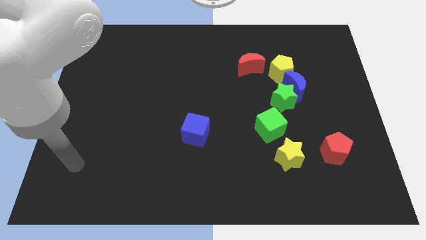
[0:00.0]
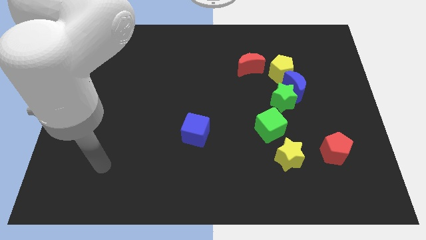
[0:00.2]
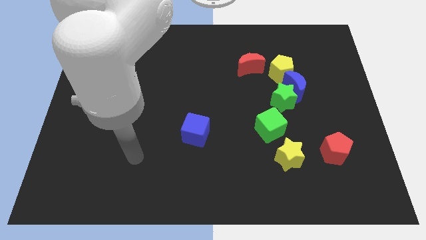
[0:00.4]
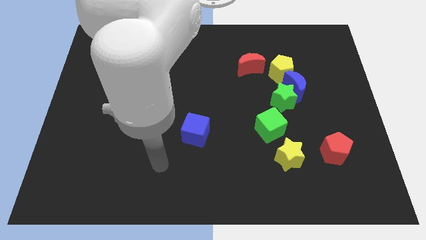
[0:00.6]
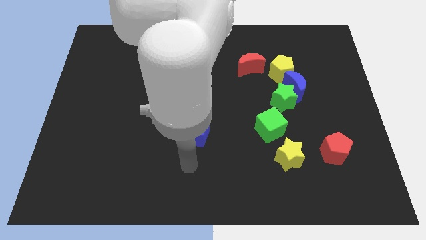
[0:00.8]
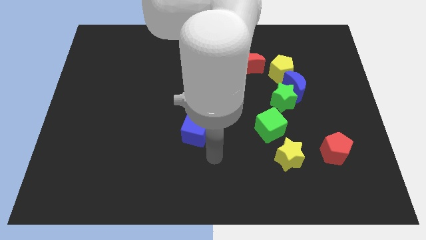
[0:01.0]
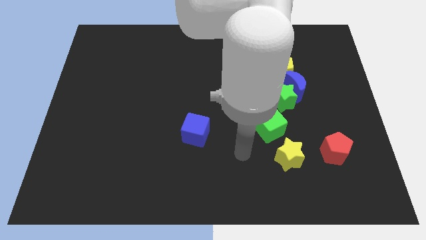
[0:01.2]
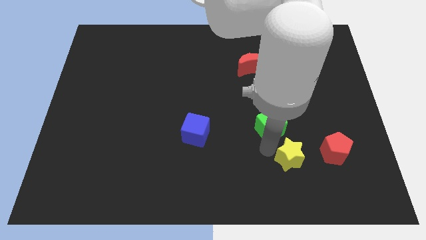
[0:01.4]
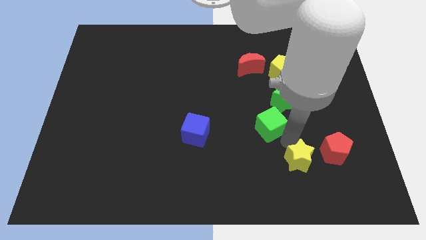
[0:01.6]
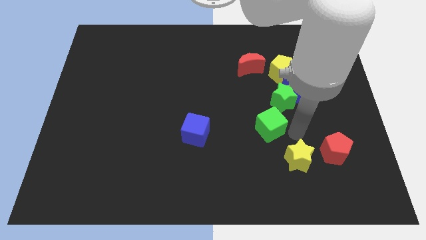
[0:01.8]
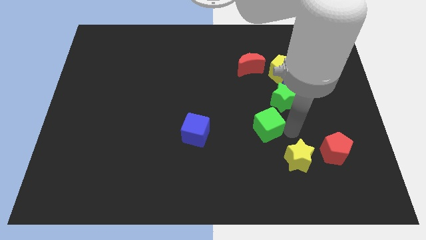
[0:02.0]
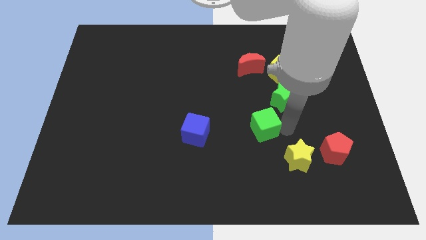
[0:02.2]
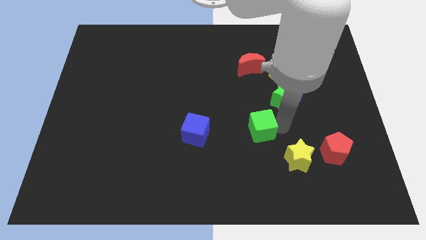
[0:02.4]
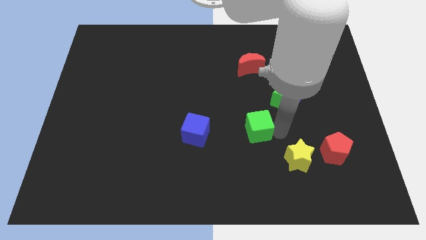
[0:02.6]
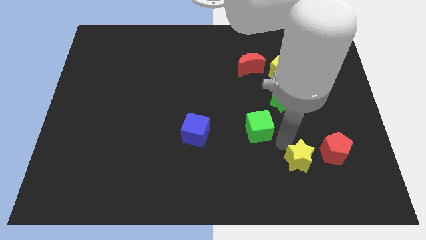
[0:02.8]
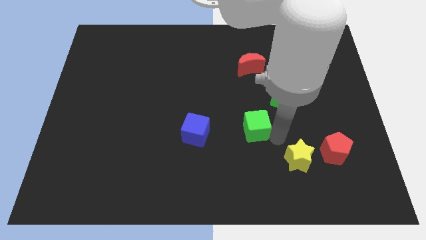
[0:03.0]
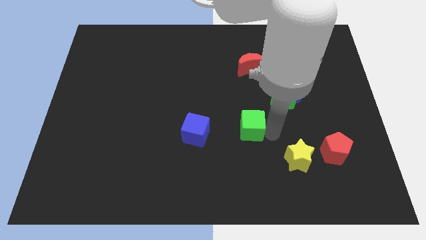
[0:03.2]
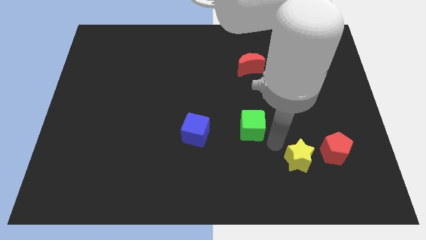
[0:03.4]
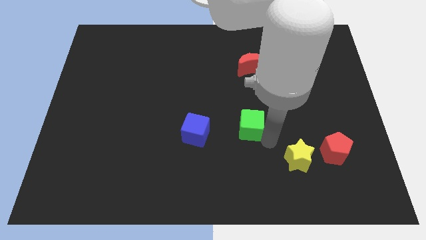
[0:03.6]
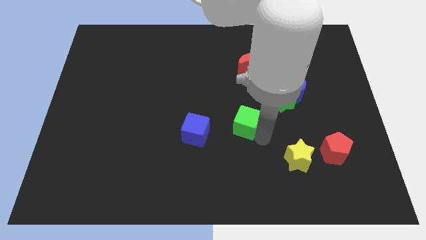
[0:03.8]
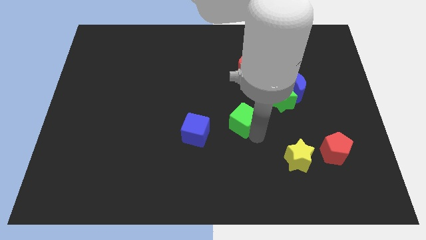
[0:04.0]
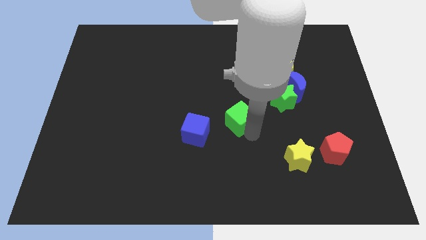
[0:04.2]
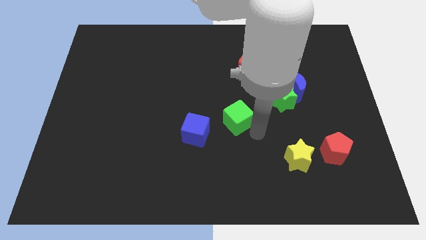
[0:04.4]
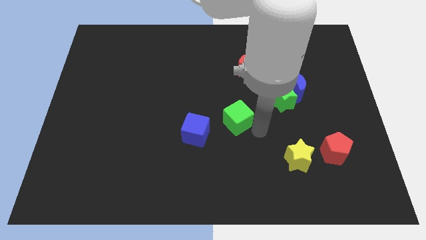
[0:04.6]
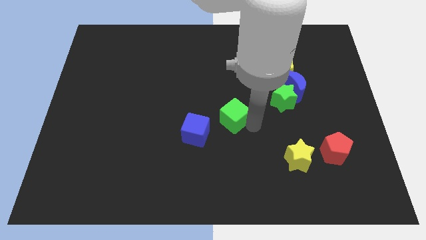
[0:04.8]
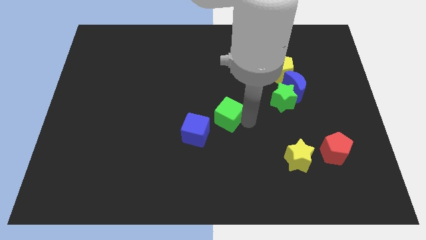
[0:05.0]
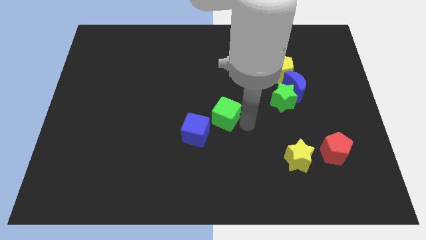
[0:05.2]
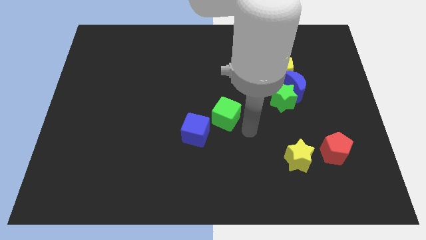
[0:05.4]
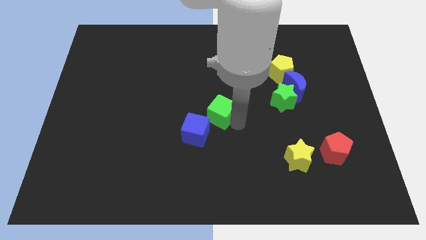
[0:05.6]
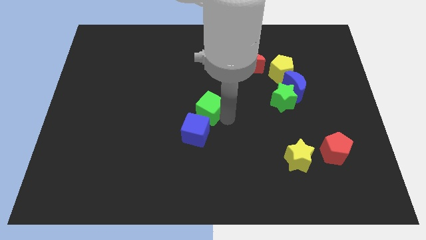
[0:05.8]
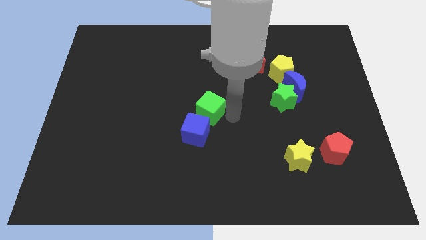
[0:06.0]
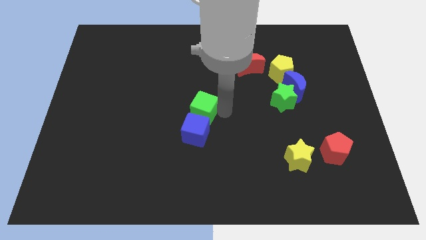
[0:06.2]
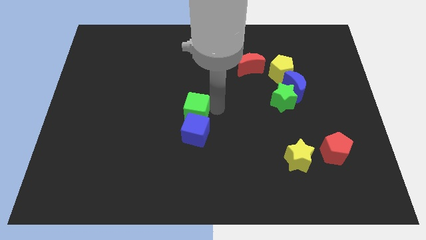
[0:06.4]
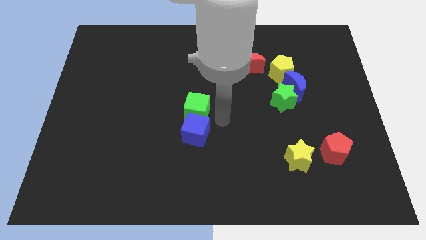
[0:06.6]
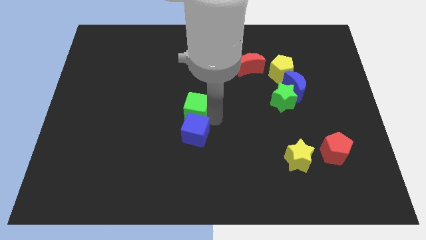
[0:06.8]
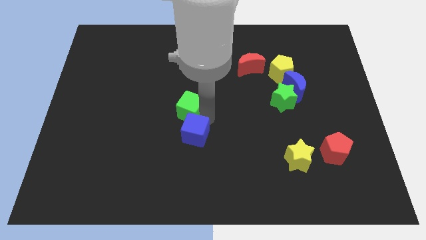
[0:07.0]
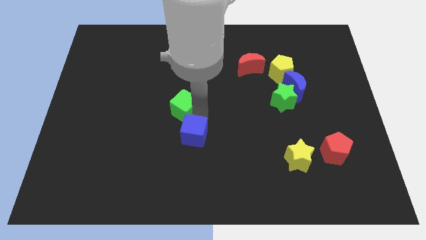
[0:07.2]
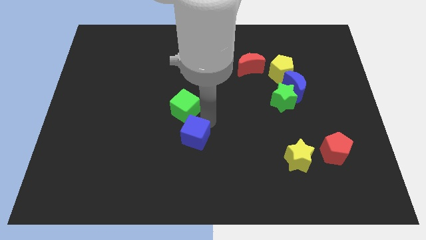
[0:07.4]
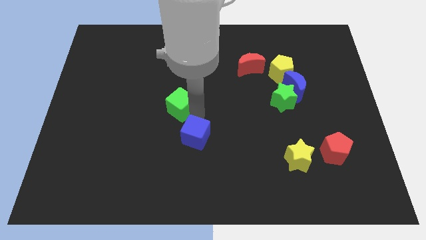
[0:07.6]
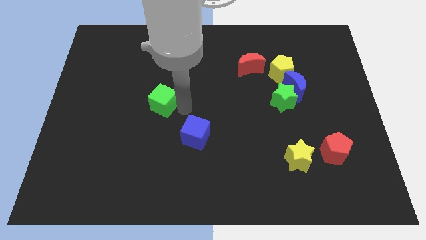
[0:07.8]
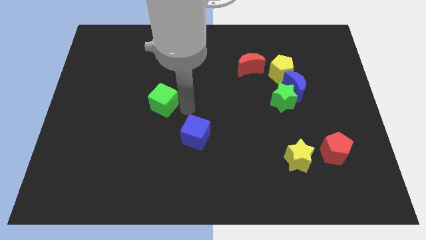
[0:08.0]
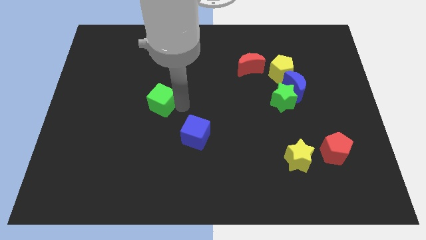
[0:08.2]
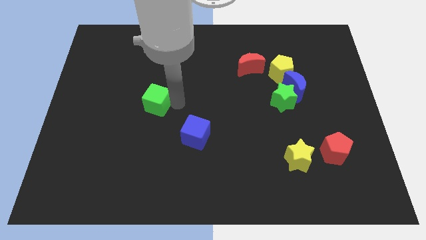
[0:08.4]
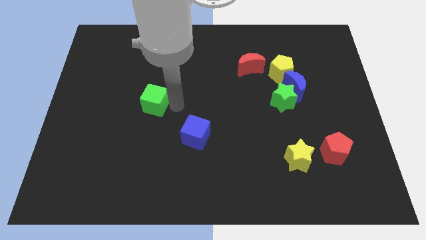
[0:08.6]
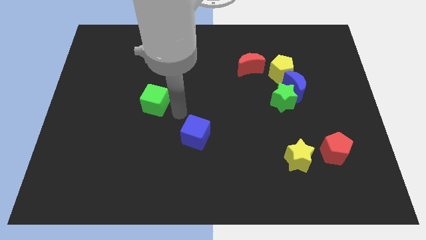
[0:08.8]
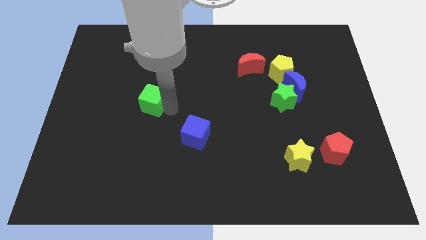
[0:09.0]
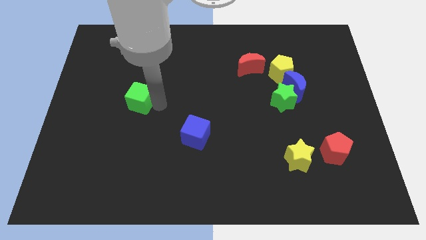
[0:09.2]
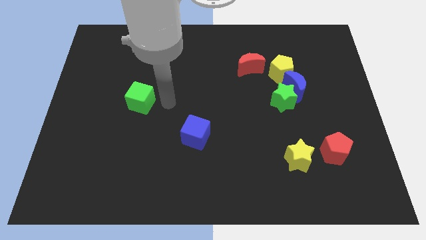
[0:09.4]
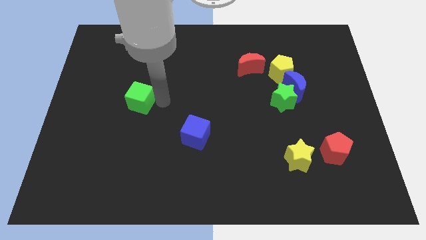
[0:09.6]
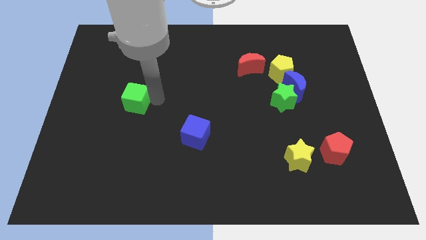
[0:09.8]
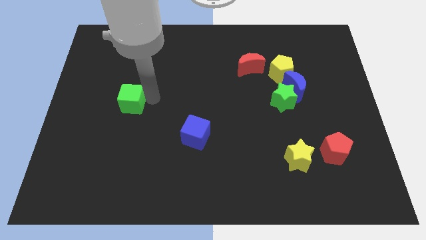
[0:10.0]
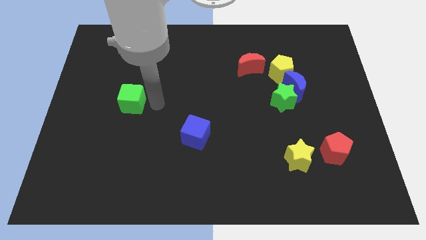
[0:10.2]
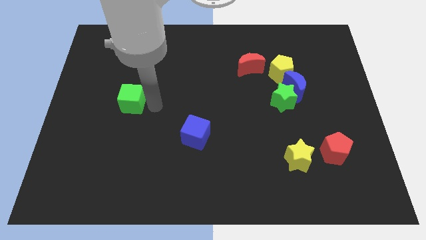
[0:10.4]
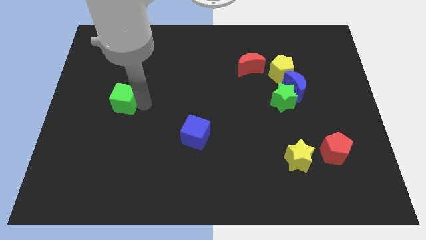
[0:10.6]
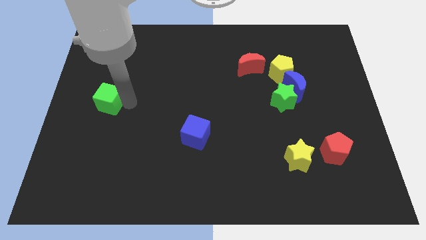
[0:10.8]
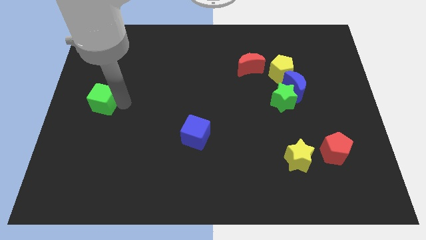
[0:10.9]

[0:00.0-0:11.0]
push the green cube to the left side of the board
